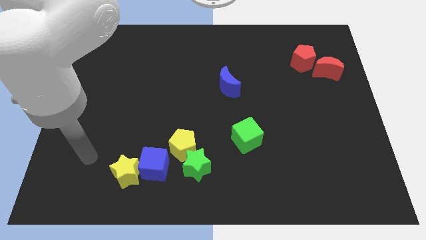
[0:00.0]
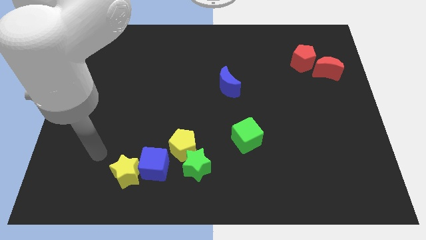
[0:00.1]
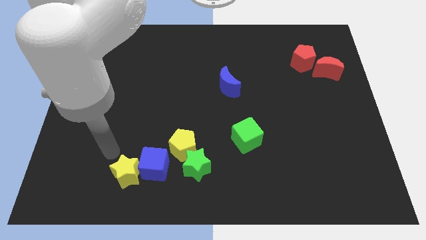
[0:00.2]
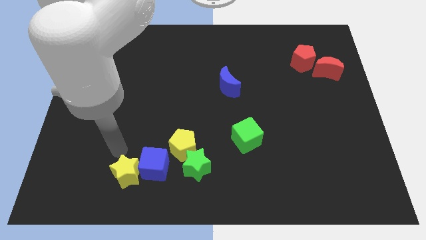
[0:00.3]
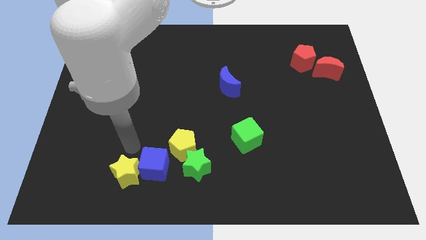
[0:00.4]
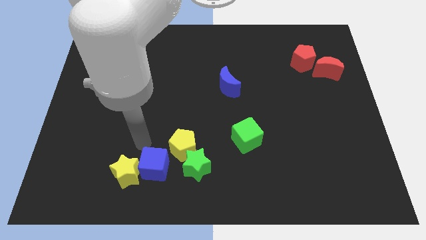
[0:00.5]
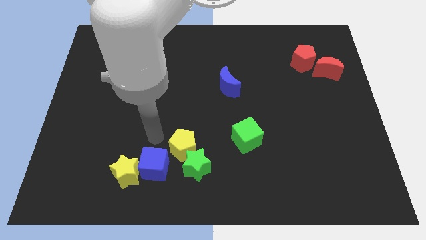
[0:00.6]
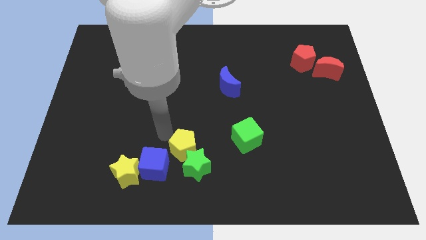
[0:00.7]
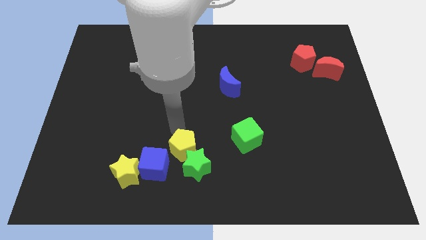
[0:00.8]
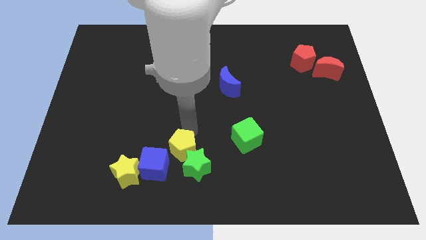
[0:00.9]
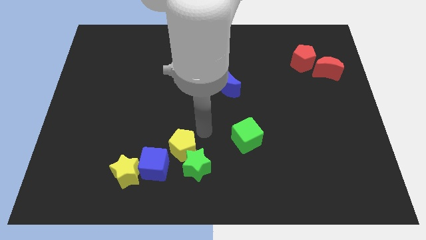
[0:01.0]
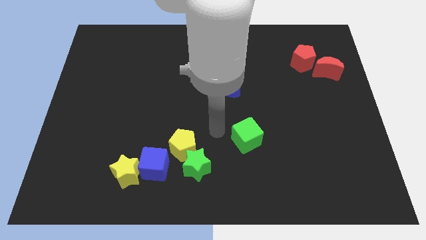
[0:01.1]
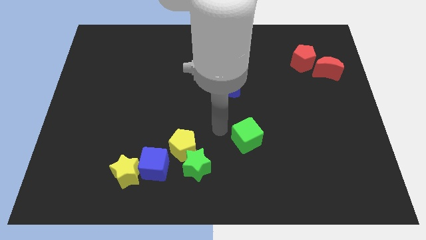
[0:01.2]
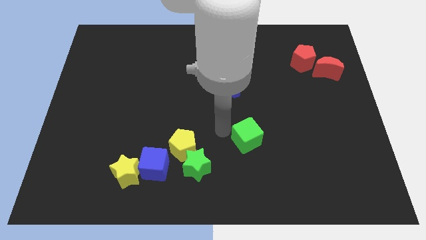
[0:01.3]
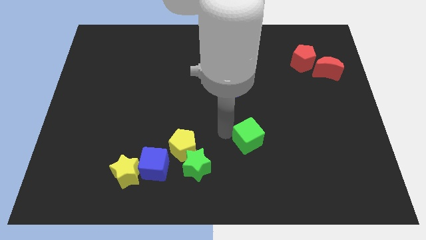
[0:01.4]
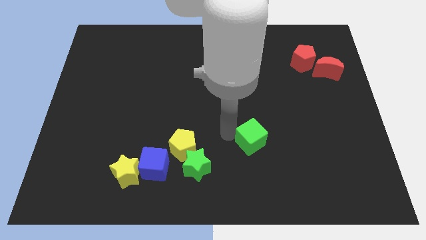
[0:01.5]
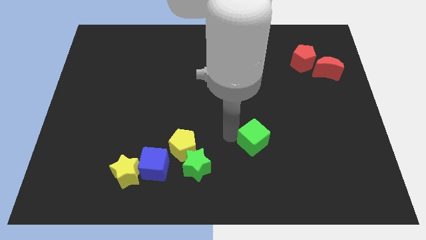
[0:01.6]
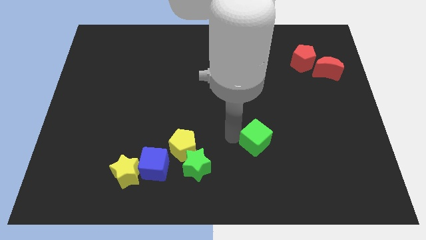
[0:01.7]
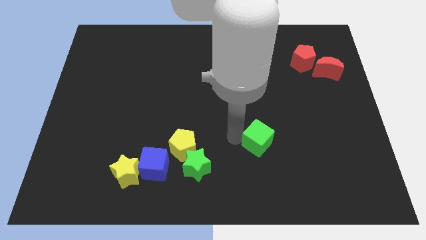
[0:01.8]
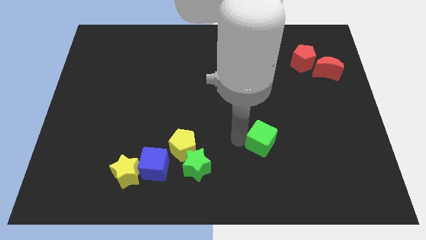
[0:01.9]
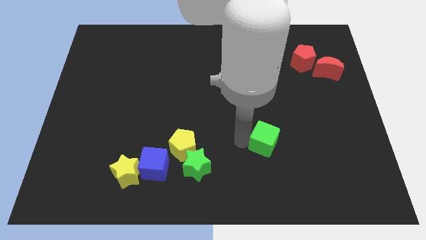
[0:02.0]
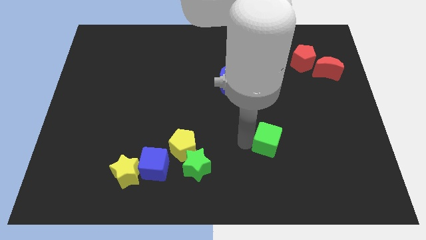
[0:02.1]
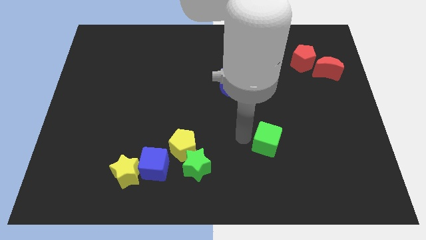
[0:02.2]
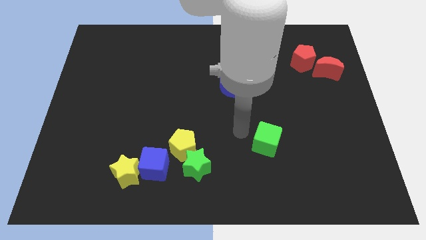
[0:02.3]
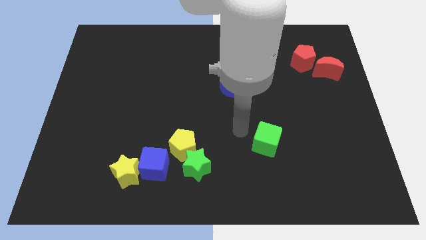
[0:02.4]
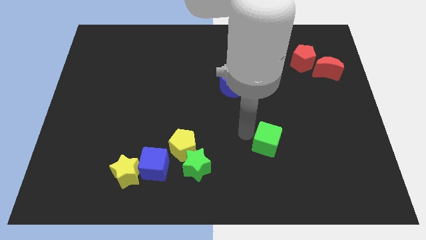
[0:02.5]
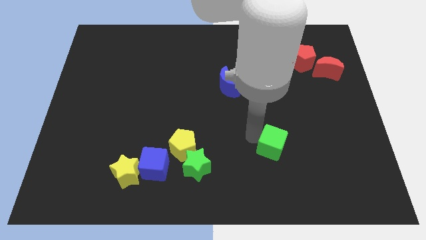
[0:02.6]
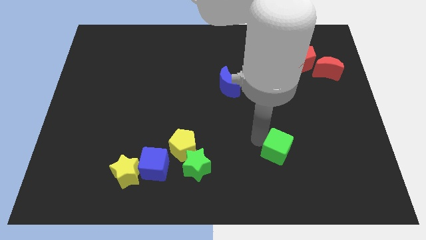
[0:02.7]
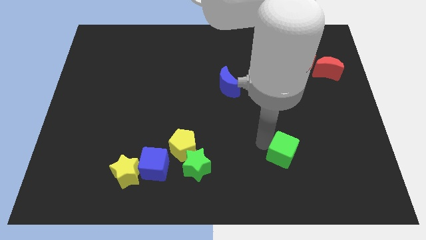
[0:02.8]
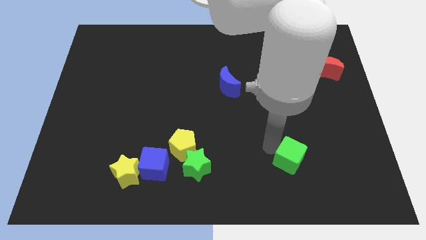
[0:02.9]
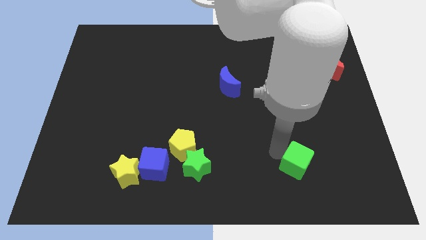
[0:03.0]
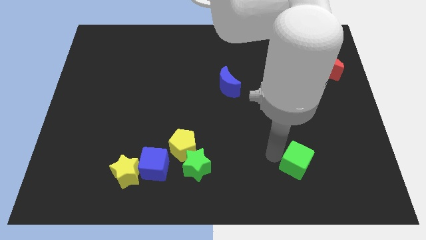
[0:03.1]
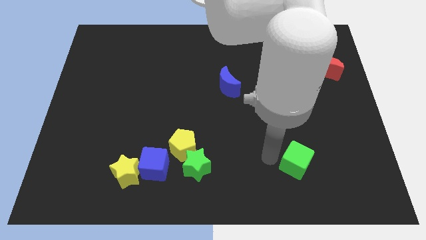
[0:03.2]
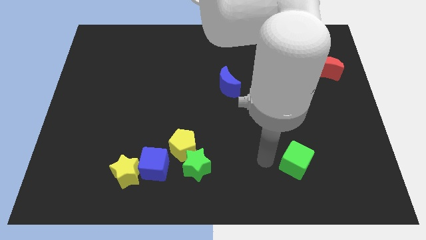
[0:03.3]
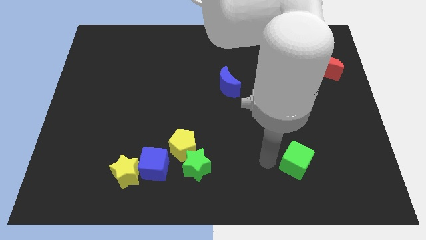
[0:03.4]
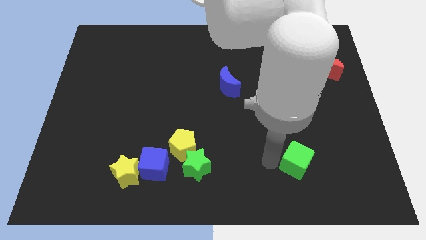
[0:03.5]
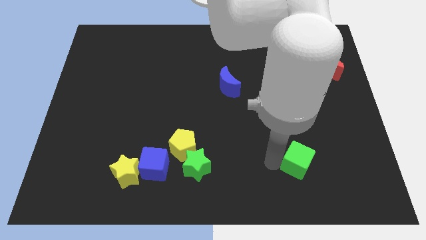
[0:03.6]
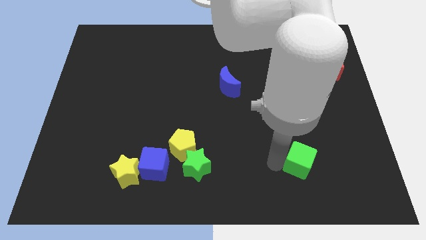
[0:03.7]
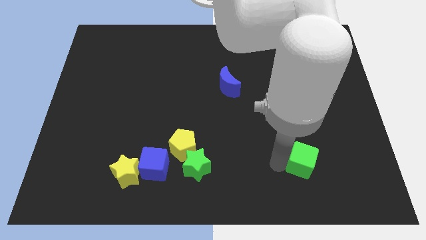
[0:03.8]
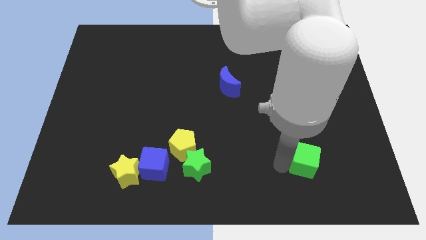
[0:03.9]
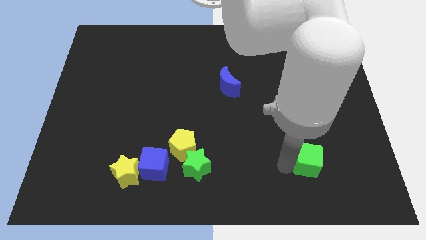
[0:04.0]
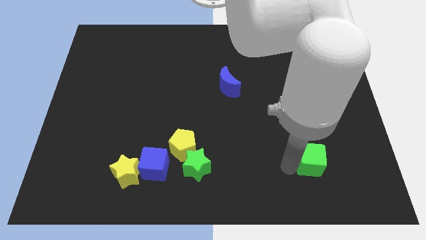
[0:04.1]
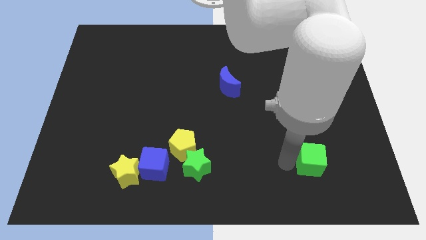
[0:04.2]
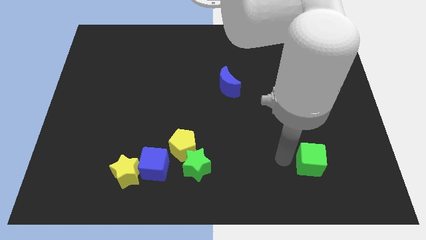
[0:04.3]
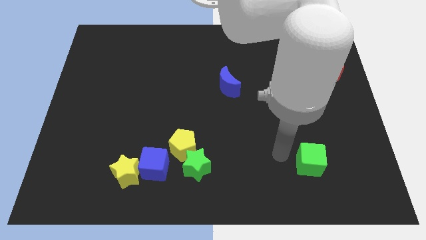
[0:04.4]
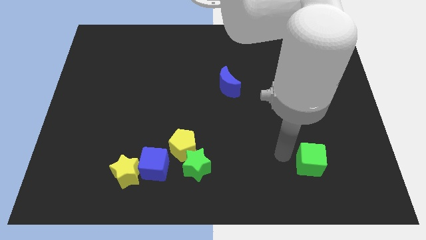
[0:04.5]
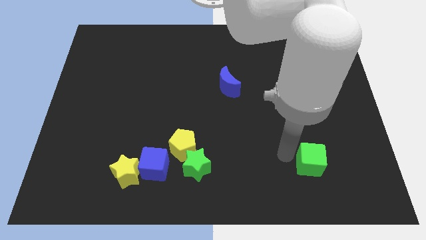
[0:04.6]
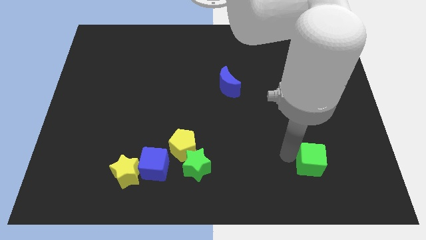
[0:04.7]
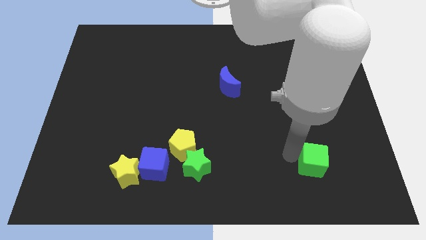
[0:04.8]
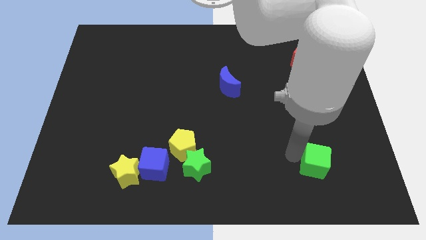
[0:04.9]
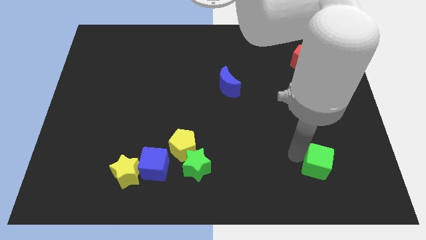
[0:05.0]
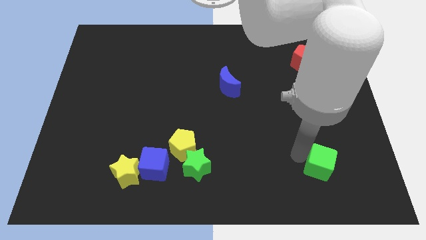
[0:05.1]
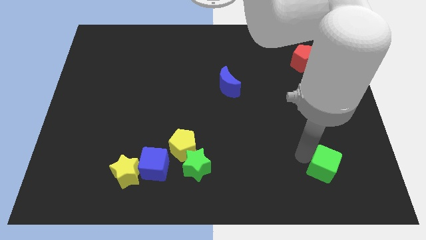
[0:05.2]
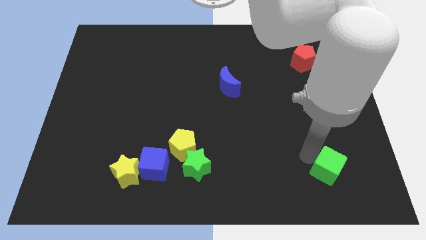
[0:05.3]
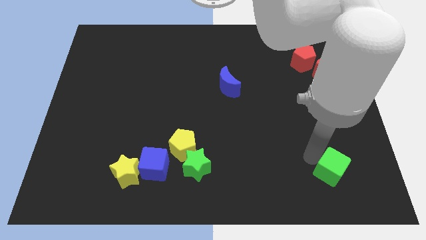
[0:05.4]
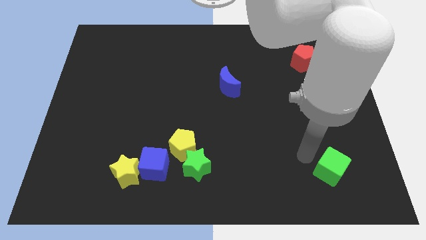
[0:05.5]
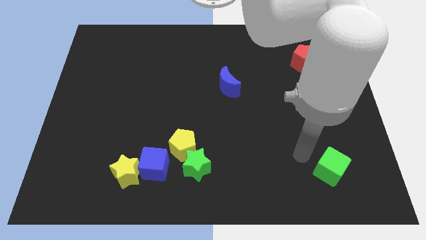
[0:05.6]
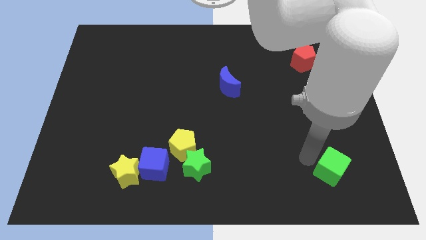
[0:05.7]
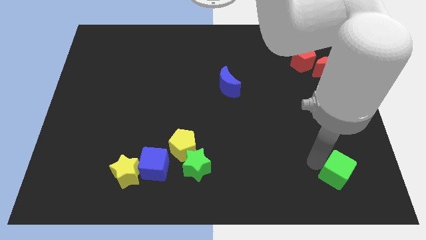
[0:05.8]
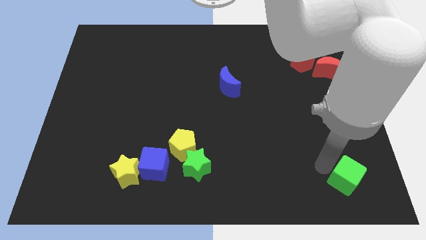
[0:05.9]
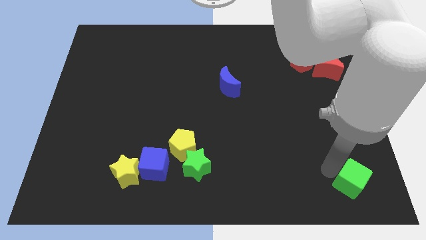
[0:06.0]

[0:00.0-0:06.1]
slide the green cube to the bottom right of the board

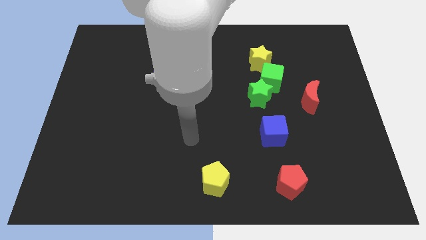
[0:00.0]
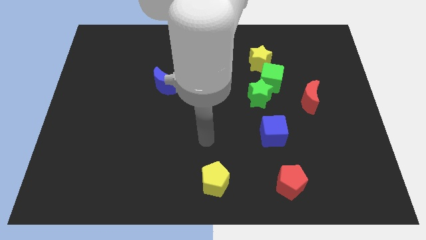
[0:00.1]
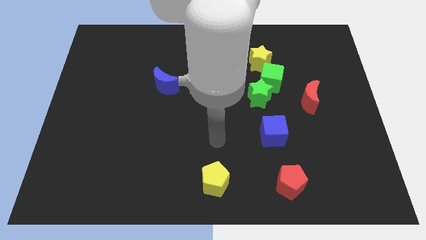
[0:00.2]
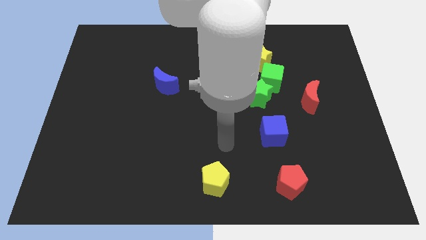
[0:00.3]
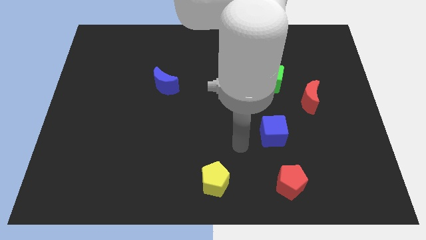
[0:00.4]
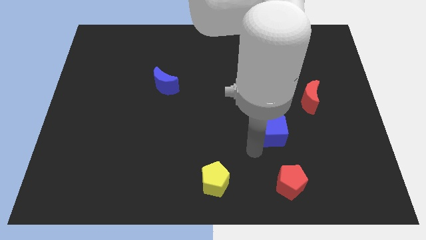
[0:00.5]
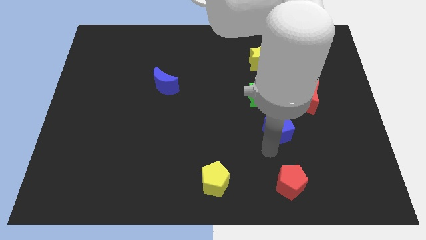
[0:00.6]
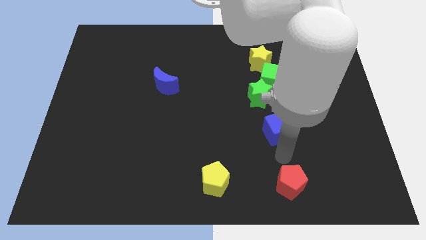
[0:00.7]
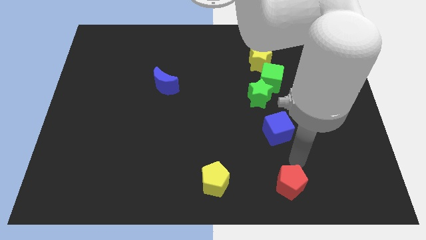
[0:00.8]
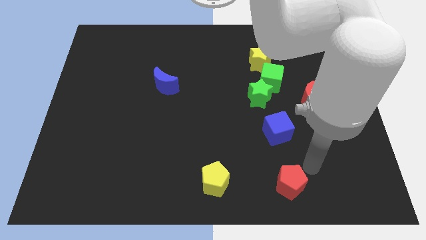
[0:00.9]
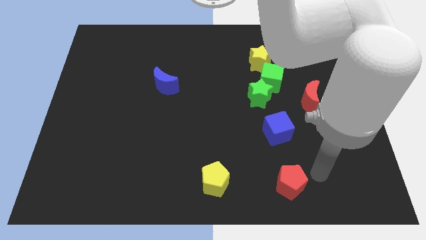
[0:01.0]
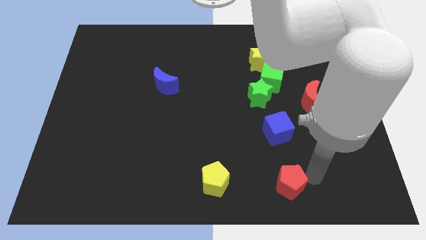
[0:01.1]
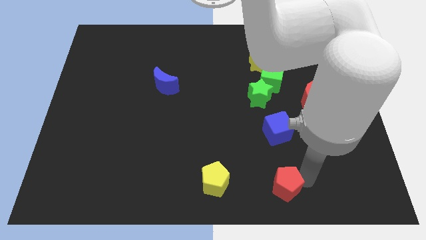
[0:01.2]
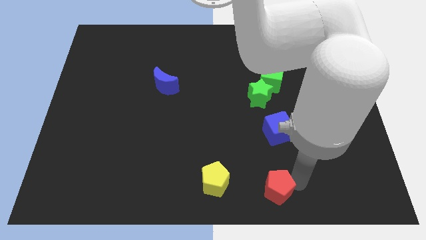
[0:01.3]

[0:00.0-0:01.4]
move the red pentagon to the bottom
